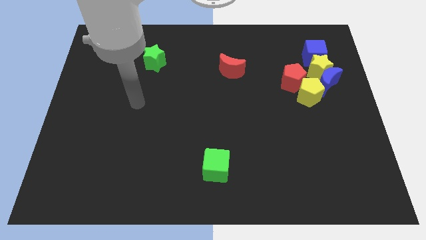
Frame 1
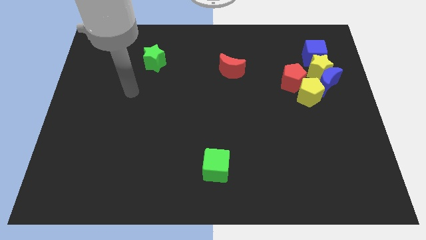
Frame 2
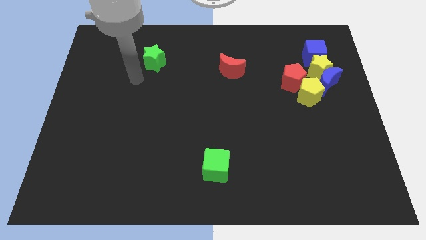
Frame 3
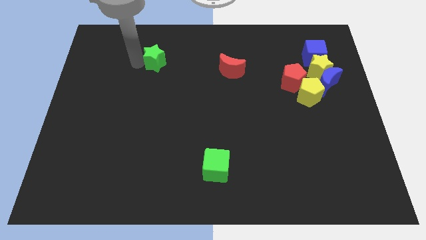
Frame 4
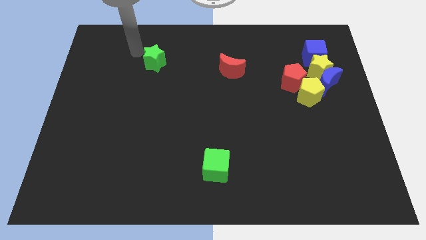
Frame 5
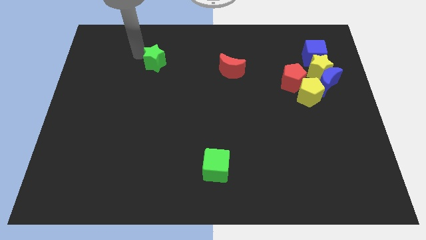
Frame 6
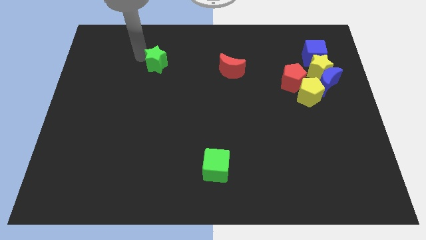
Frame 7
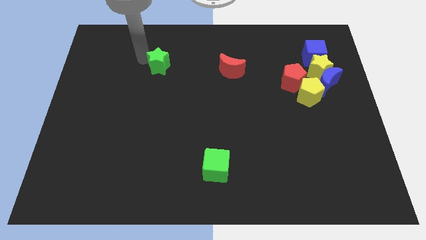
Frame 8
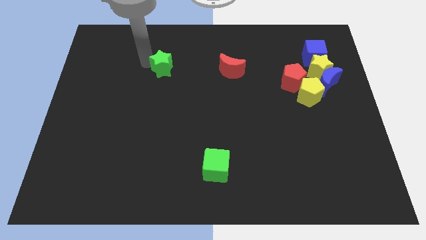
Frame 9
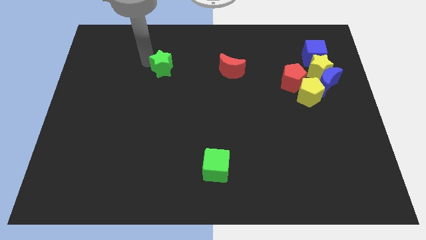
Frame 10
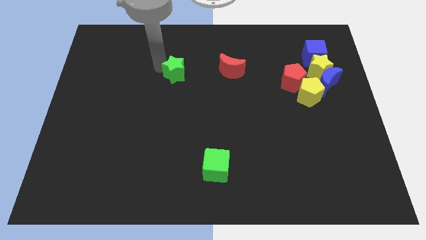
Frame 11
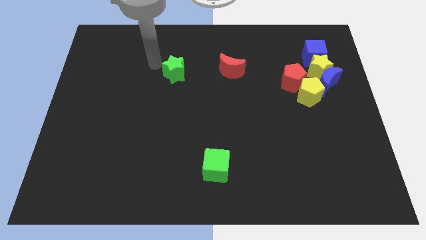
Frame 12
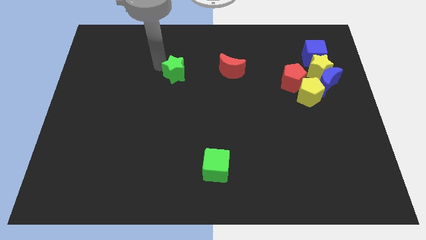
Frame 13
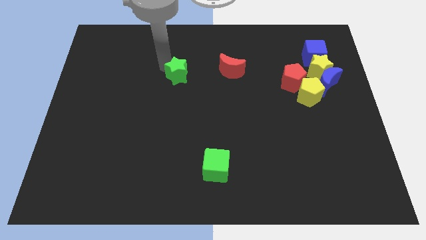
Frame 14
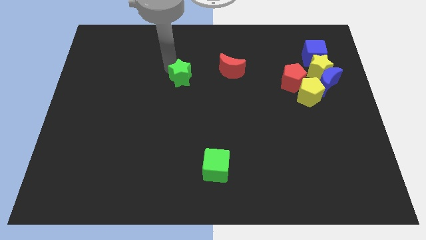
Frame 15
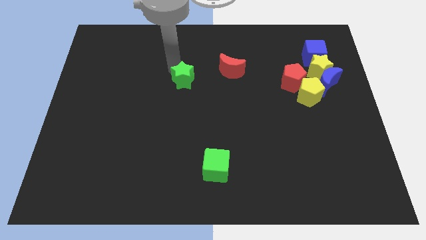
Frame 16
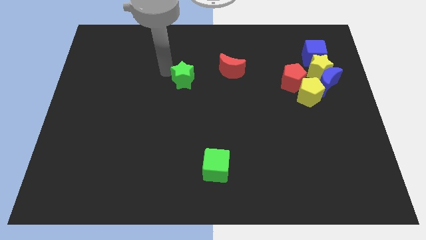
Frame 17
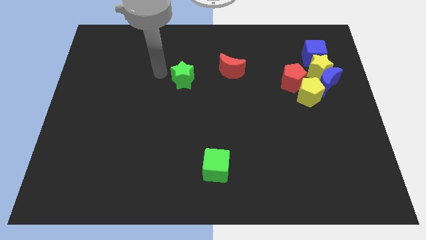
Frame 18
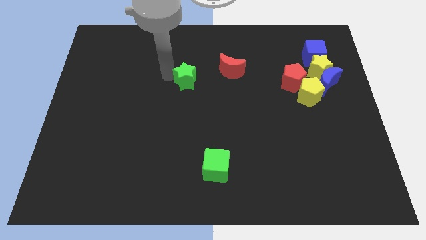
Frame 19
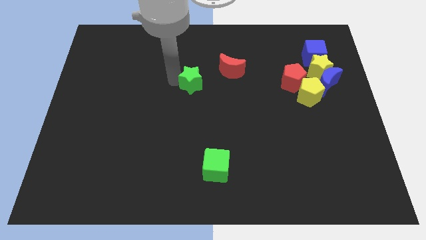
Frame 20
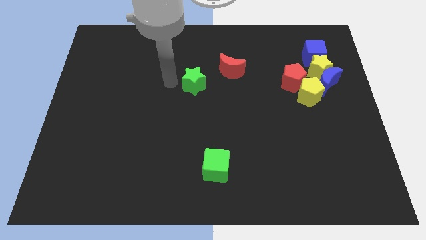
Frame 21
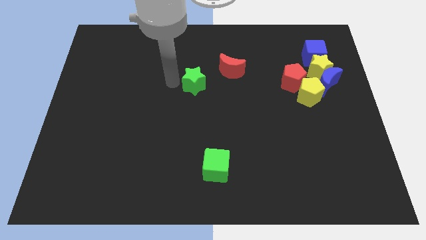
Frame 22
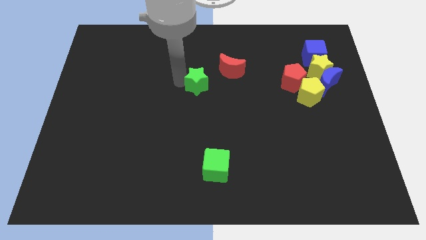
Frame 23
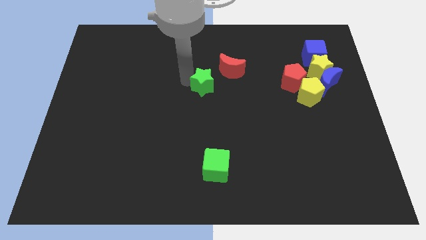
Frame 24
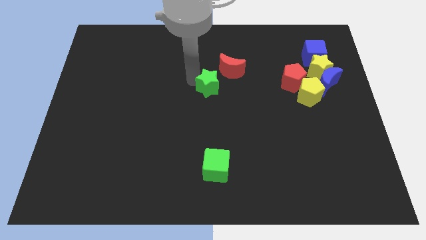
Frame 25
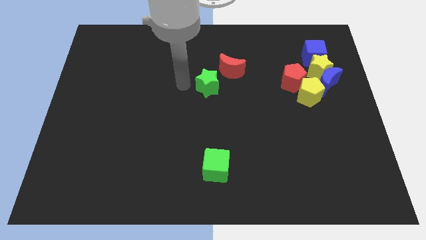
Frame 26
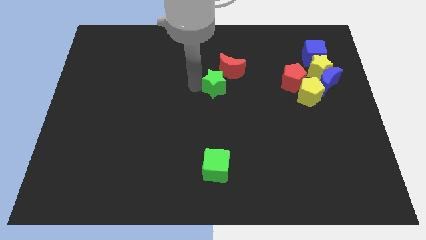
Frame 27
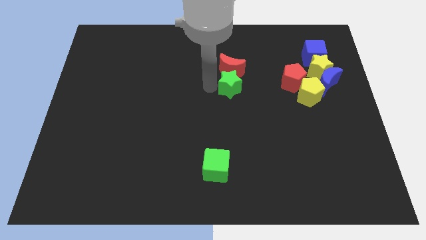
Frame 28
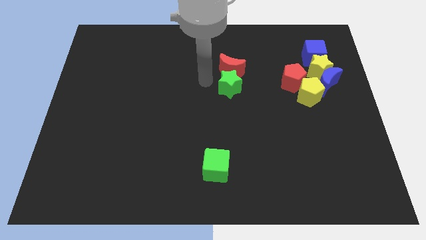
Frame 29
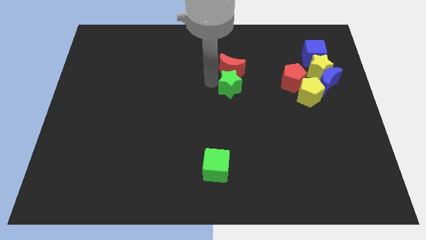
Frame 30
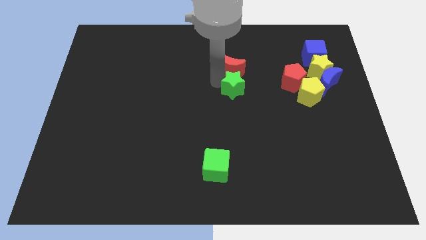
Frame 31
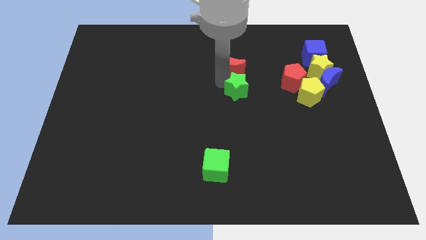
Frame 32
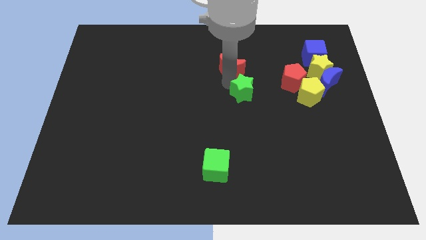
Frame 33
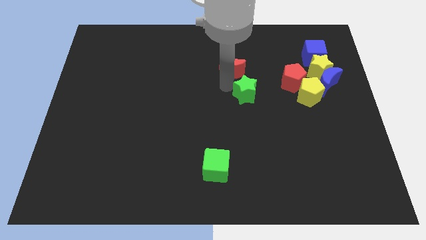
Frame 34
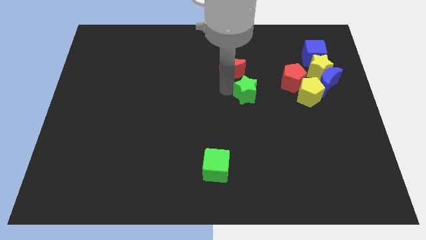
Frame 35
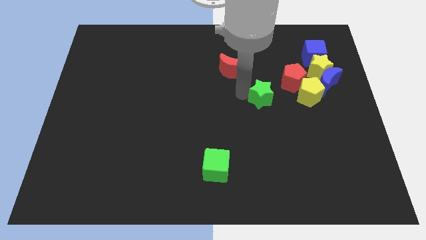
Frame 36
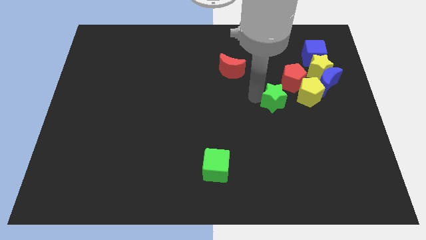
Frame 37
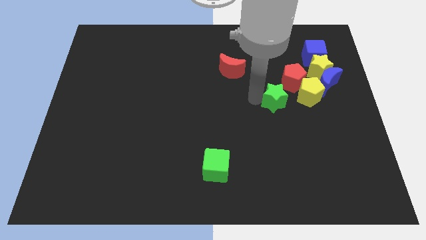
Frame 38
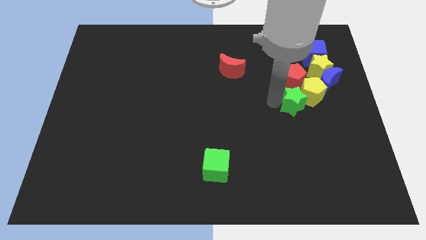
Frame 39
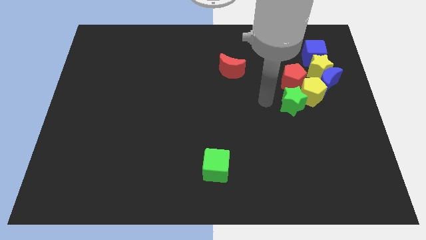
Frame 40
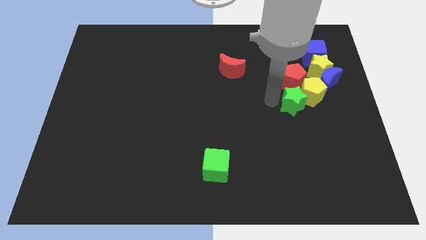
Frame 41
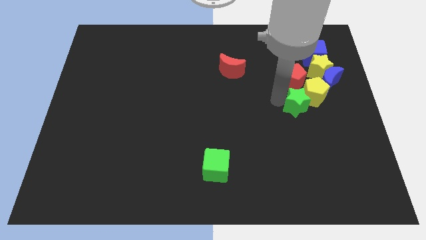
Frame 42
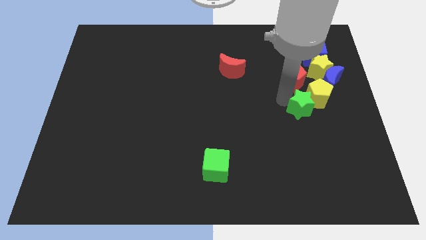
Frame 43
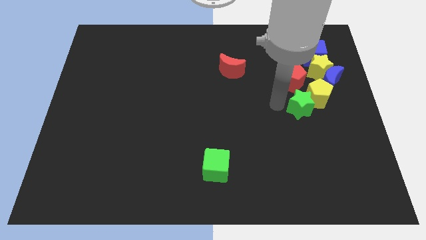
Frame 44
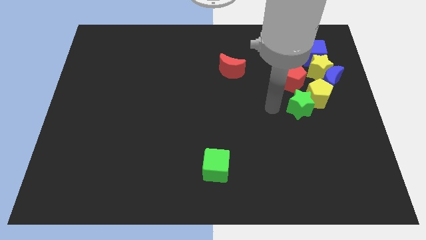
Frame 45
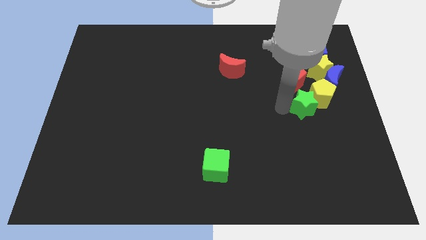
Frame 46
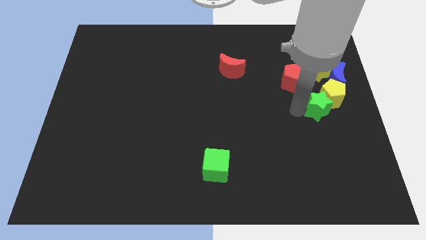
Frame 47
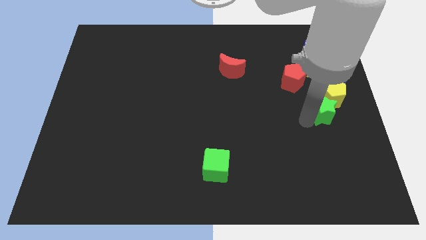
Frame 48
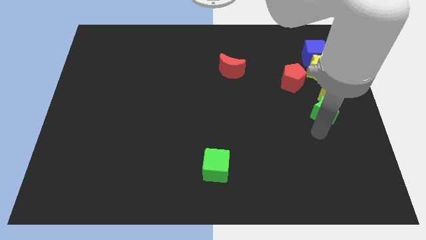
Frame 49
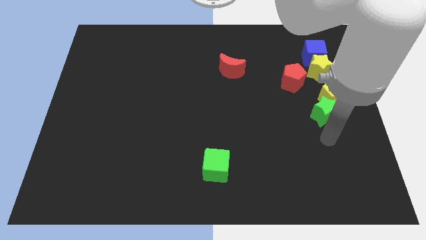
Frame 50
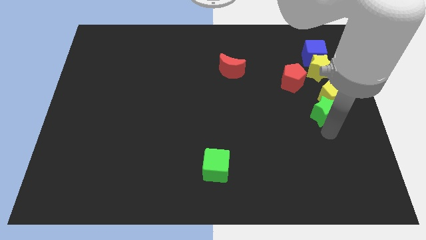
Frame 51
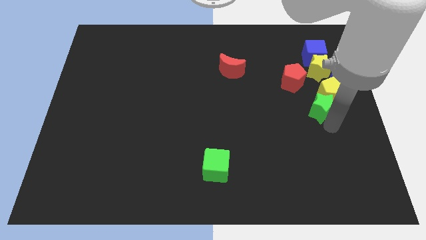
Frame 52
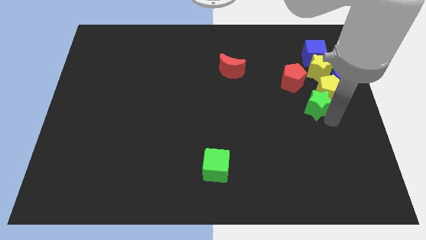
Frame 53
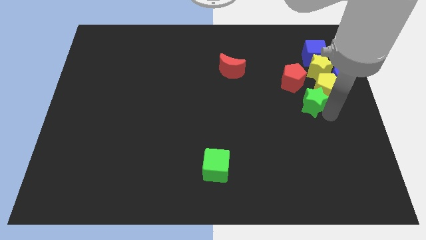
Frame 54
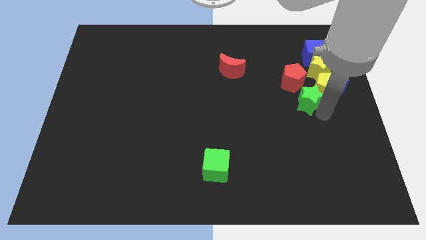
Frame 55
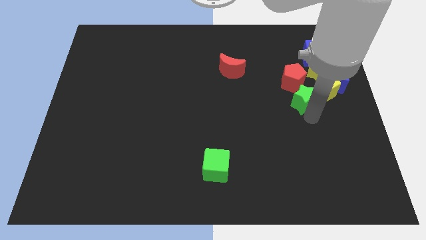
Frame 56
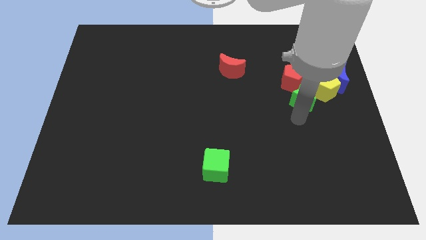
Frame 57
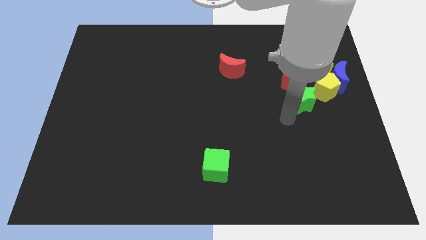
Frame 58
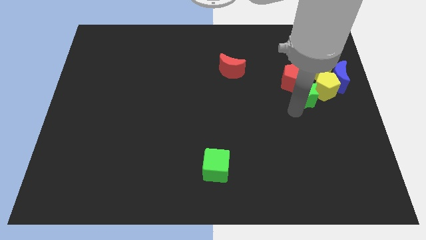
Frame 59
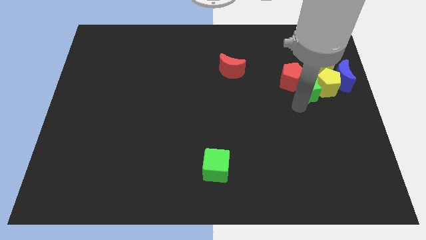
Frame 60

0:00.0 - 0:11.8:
slide the green star below the blue cube

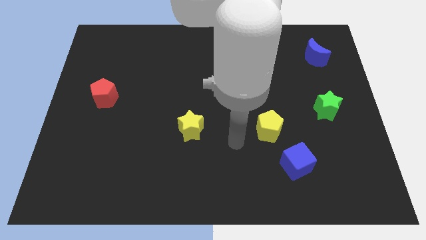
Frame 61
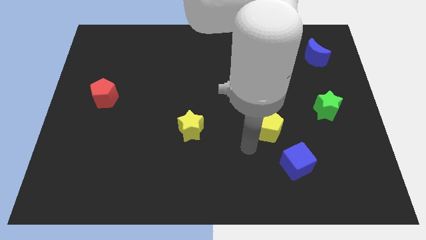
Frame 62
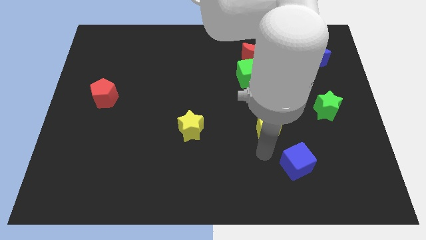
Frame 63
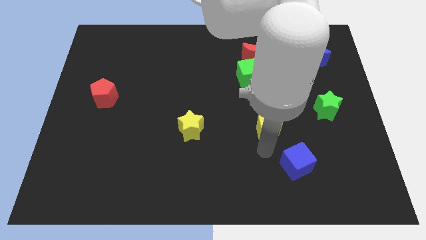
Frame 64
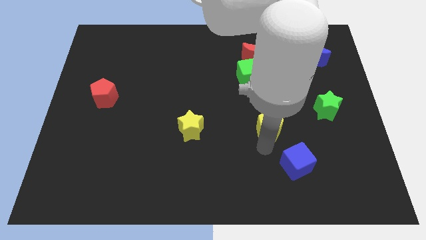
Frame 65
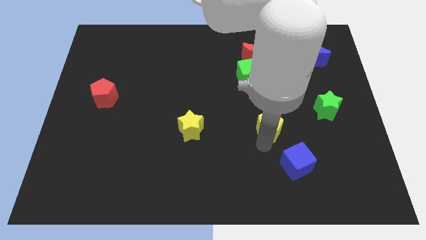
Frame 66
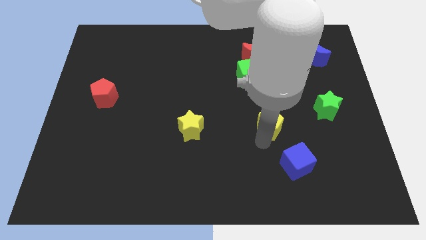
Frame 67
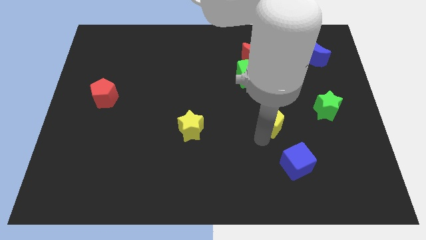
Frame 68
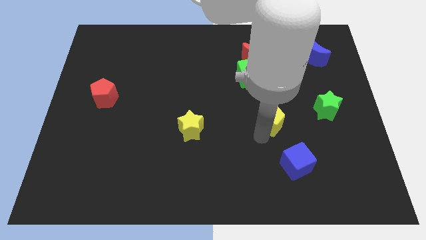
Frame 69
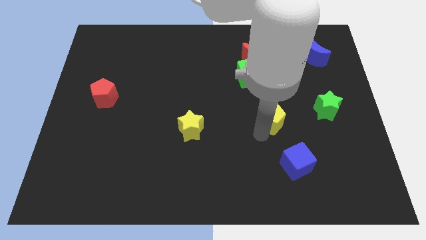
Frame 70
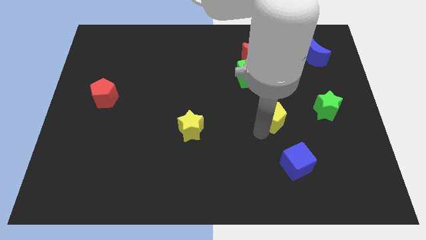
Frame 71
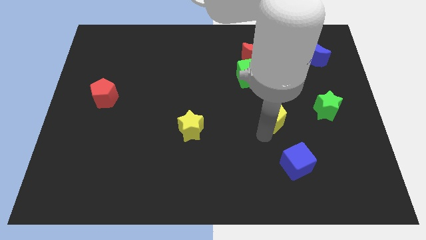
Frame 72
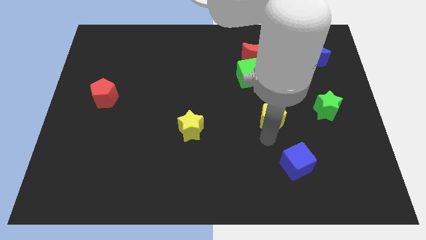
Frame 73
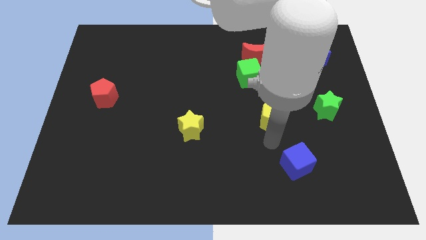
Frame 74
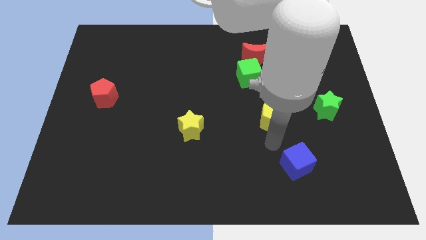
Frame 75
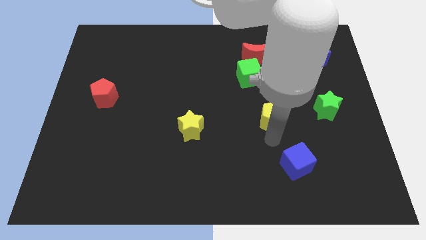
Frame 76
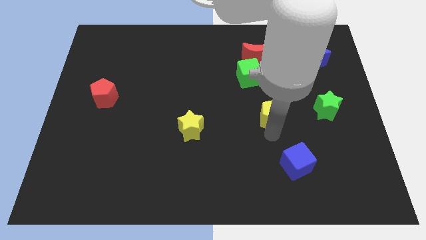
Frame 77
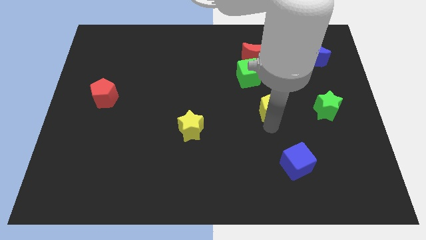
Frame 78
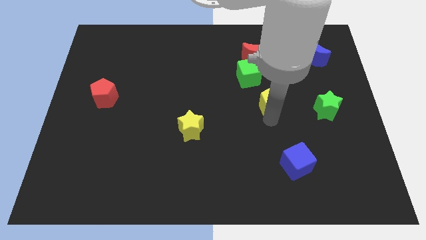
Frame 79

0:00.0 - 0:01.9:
push the yellow pentagon to the bottom right side of the green cube
